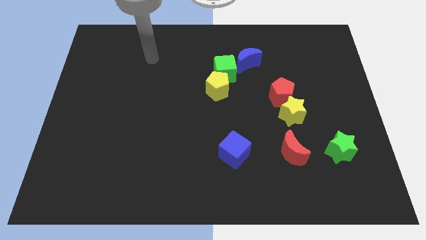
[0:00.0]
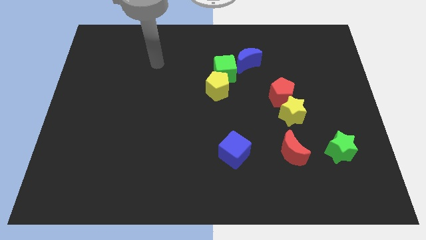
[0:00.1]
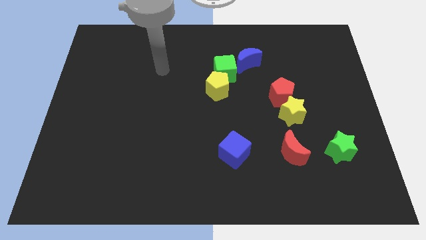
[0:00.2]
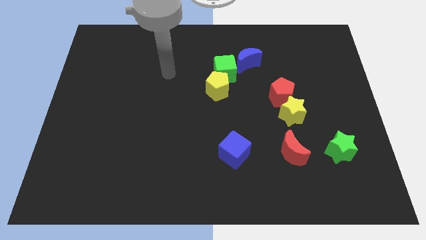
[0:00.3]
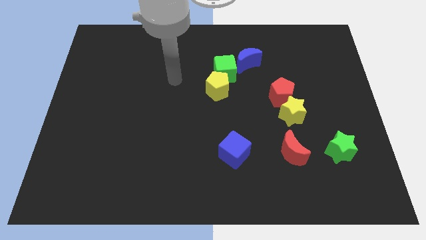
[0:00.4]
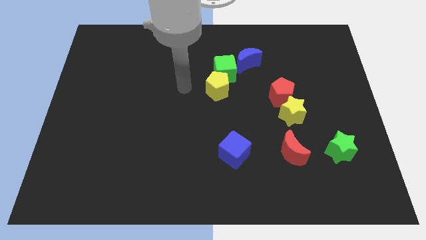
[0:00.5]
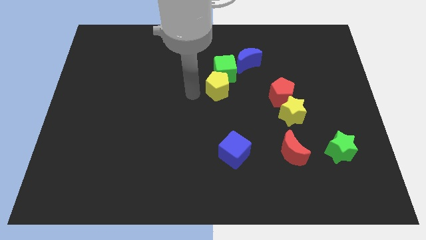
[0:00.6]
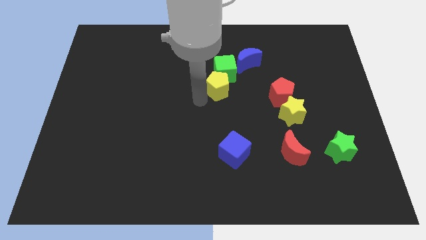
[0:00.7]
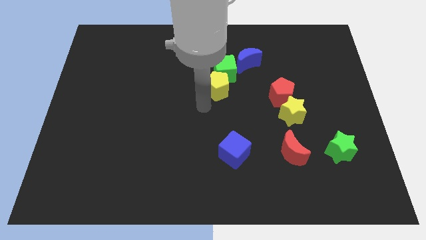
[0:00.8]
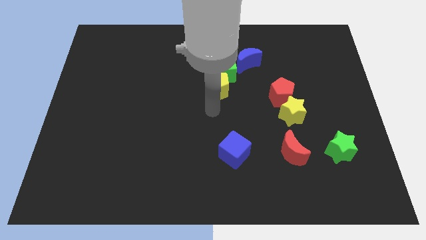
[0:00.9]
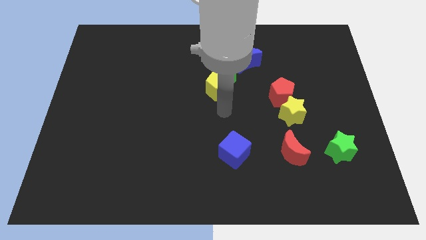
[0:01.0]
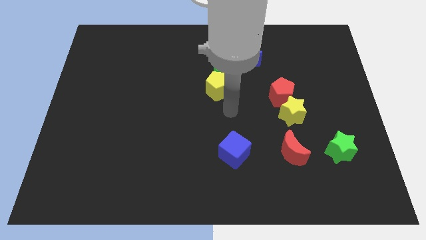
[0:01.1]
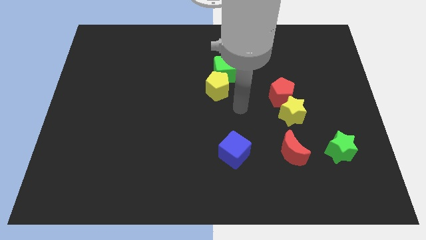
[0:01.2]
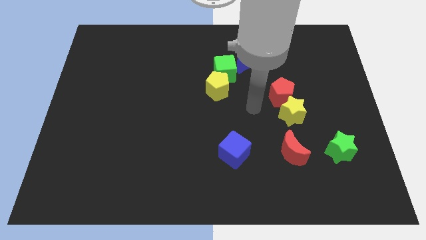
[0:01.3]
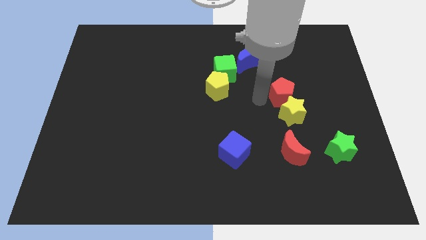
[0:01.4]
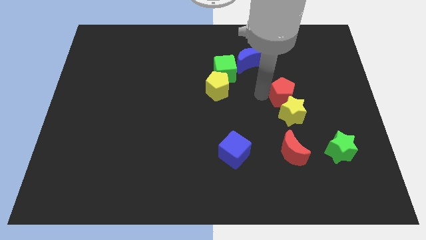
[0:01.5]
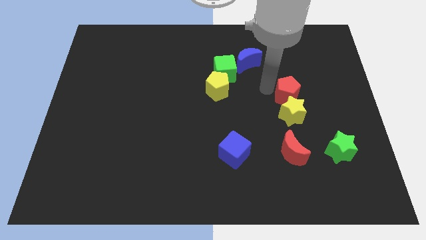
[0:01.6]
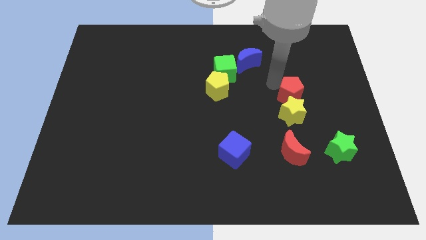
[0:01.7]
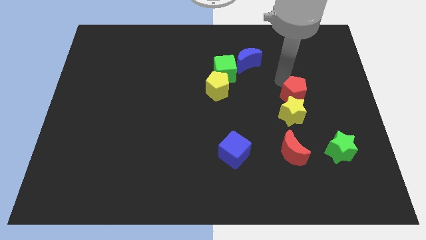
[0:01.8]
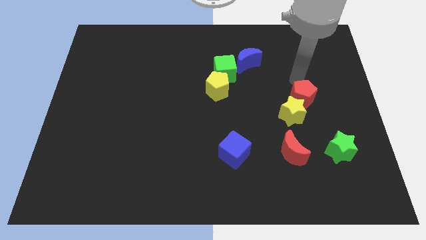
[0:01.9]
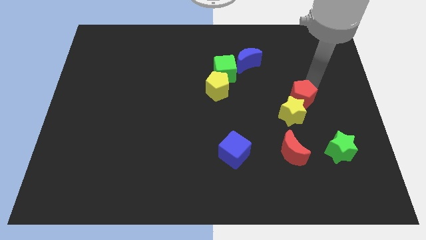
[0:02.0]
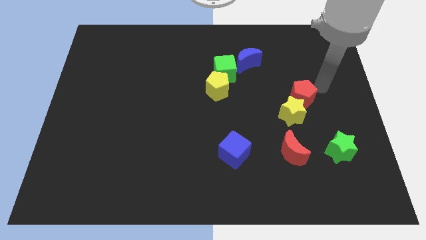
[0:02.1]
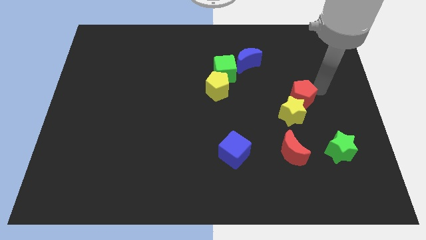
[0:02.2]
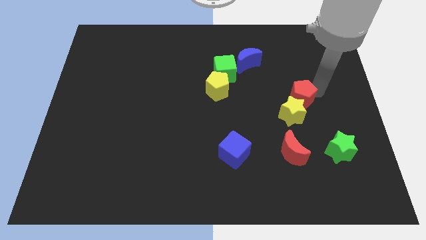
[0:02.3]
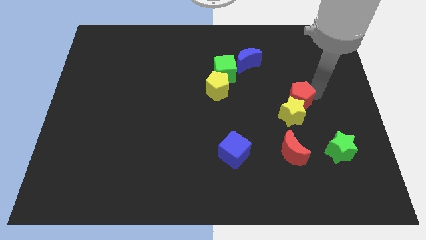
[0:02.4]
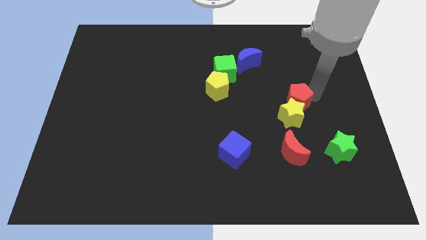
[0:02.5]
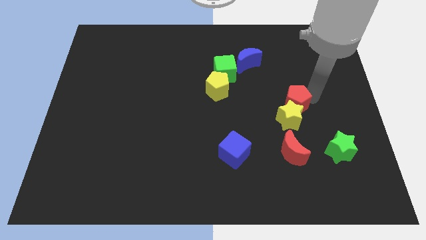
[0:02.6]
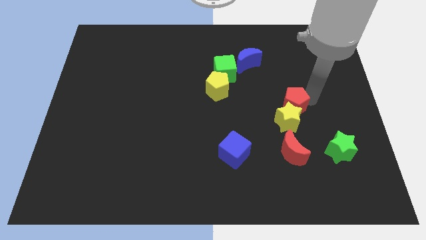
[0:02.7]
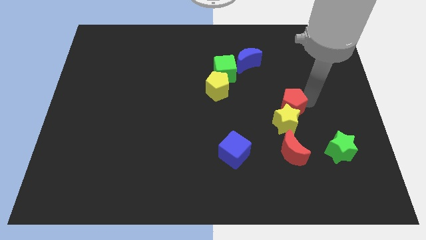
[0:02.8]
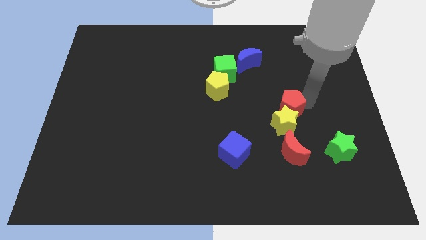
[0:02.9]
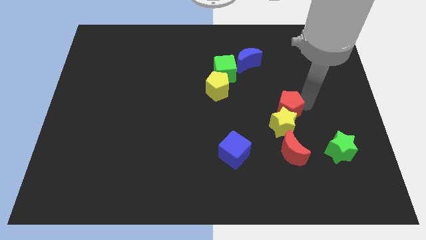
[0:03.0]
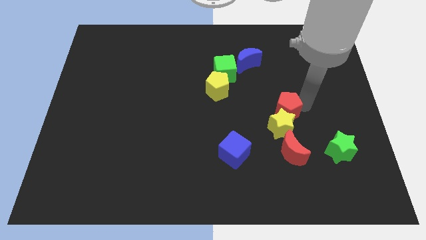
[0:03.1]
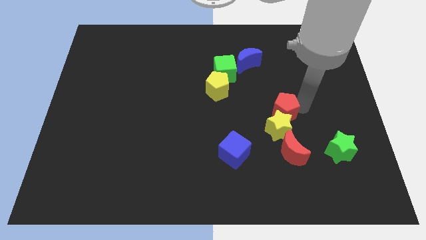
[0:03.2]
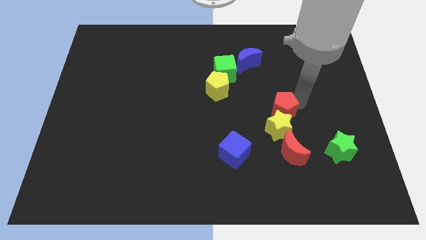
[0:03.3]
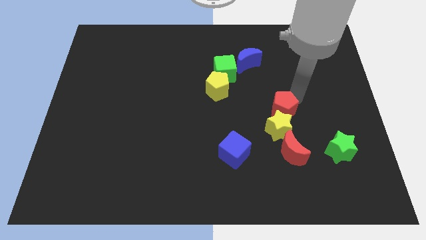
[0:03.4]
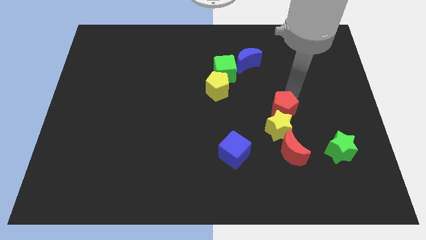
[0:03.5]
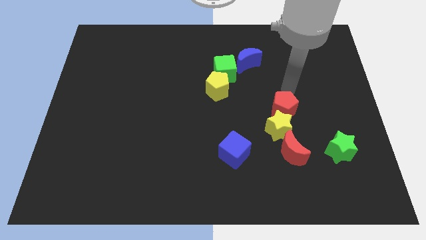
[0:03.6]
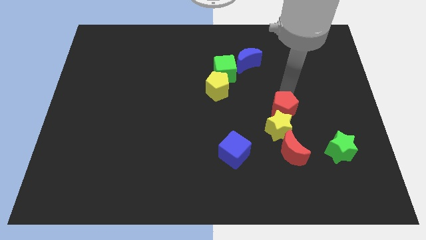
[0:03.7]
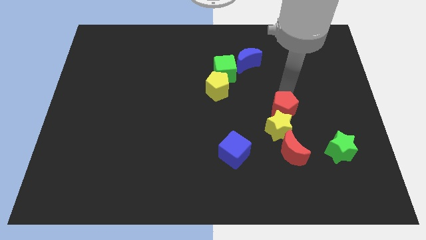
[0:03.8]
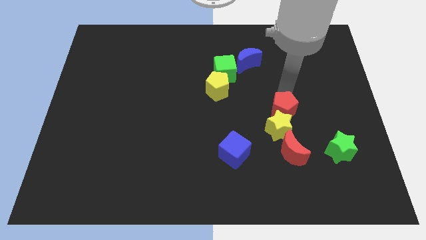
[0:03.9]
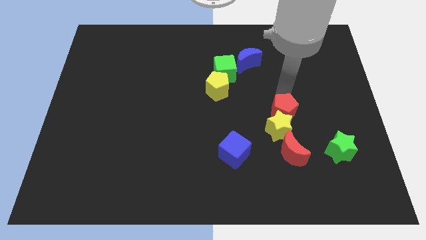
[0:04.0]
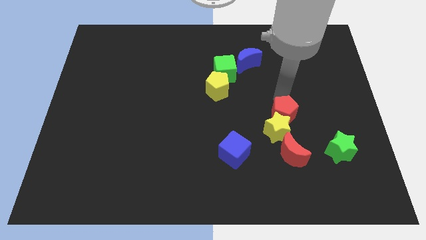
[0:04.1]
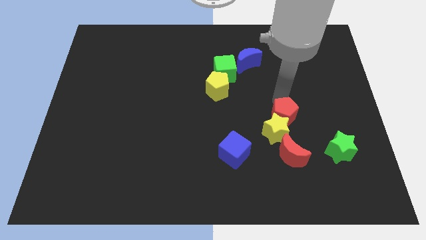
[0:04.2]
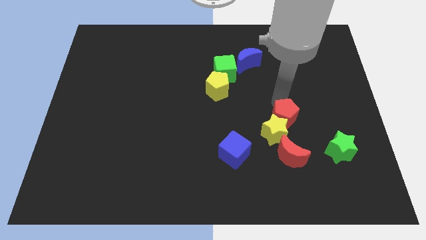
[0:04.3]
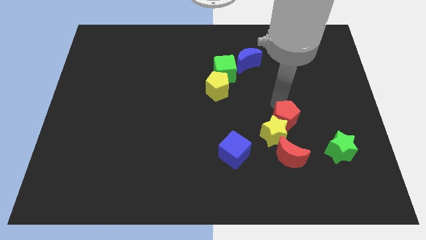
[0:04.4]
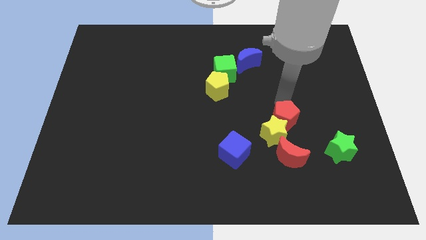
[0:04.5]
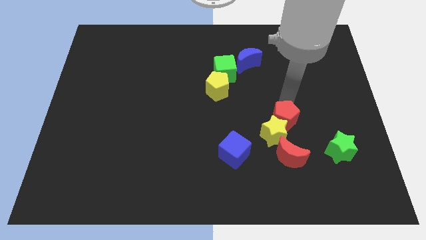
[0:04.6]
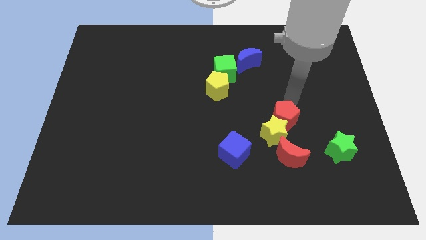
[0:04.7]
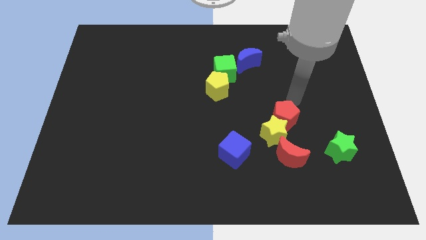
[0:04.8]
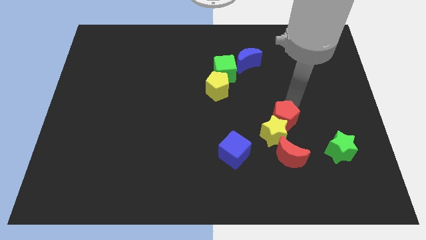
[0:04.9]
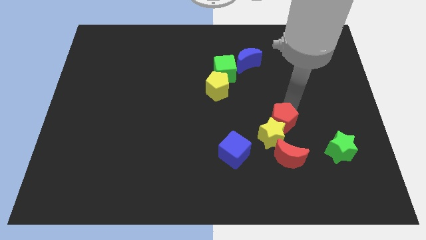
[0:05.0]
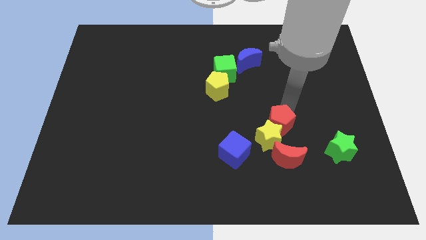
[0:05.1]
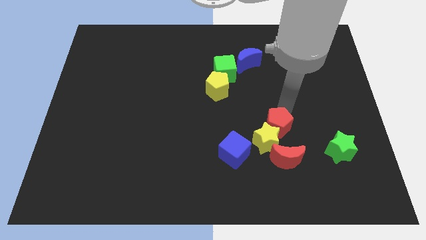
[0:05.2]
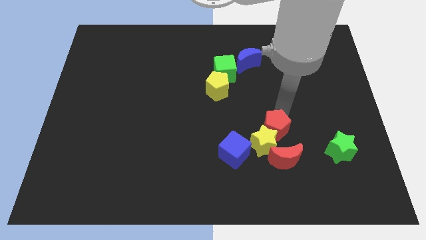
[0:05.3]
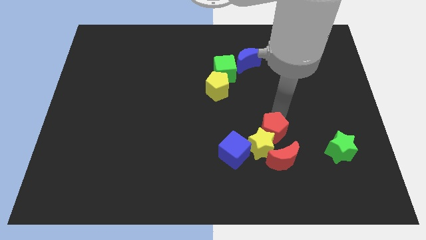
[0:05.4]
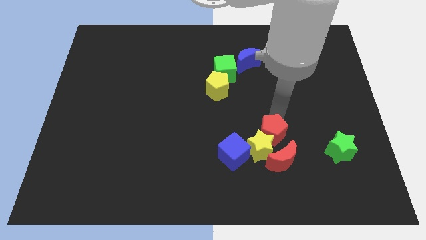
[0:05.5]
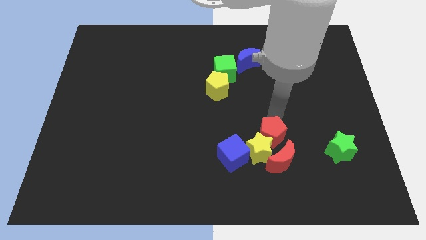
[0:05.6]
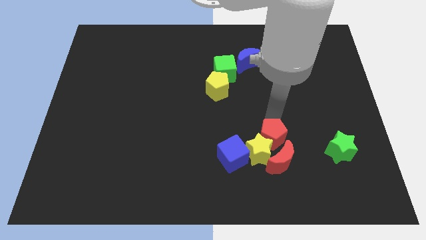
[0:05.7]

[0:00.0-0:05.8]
put the red pentagon to the red moon

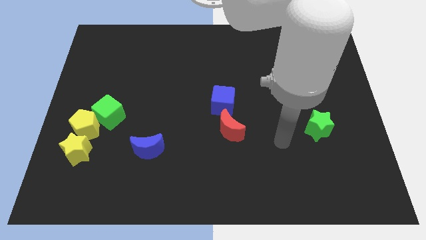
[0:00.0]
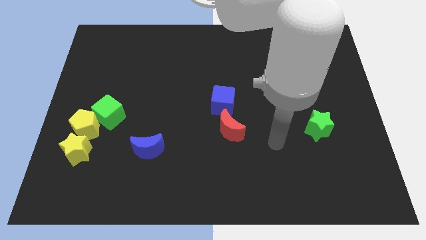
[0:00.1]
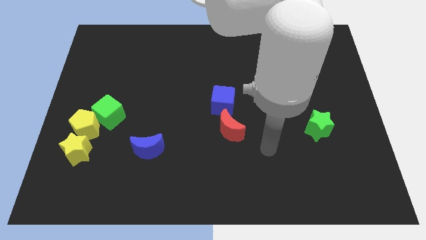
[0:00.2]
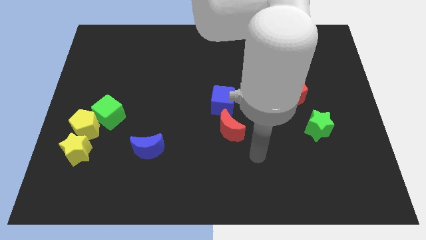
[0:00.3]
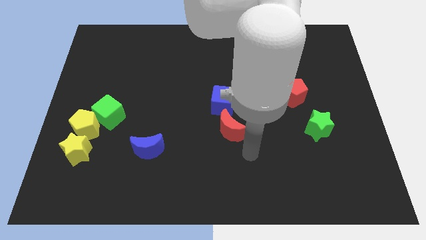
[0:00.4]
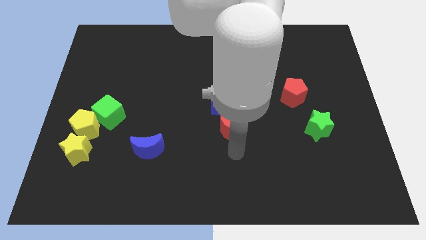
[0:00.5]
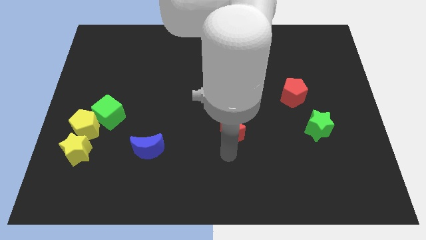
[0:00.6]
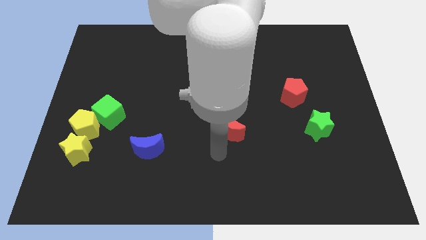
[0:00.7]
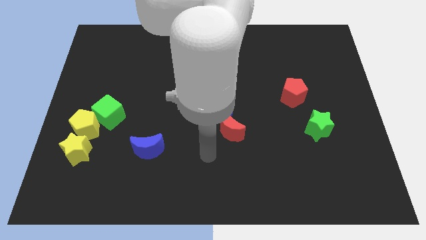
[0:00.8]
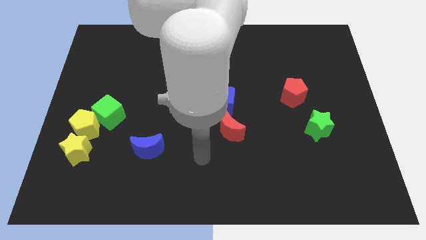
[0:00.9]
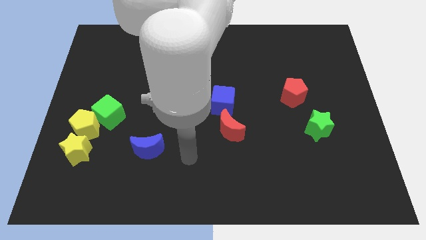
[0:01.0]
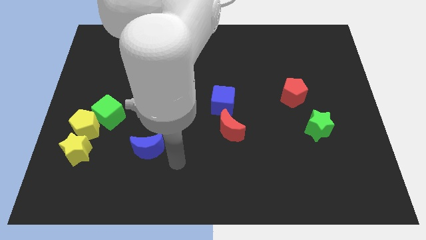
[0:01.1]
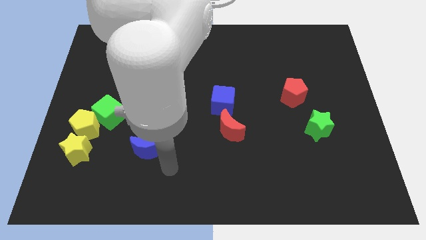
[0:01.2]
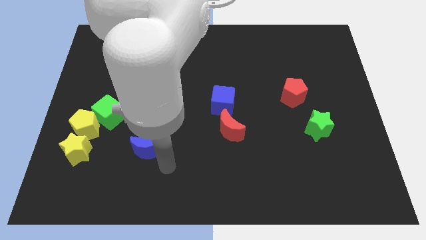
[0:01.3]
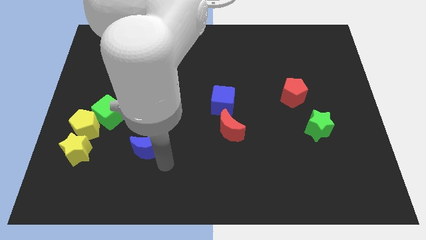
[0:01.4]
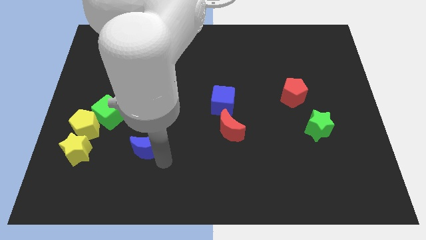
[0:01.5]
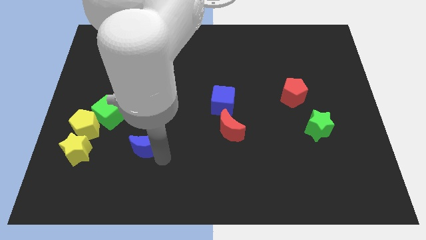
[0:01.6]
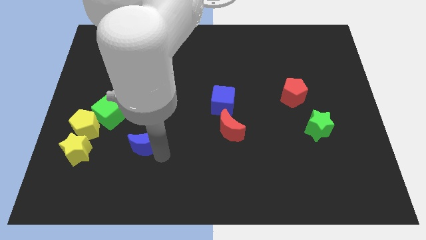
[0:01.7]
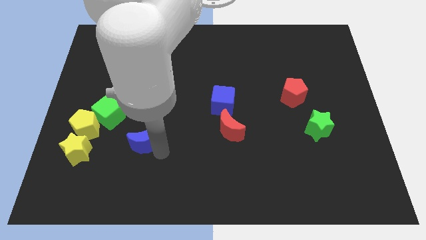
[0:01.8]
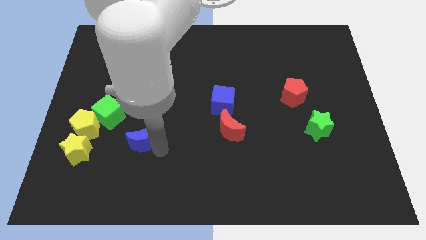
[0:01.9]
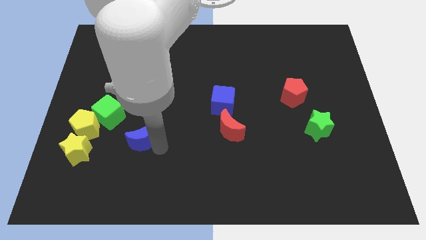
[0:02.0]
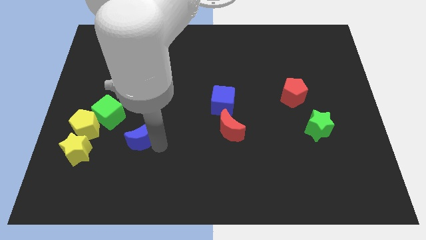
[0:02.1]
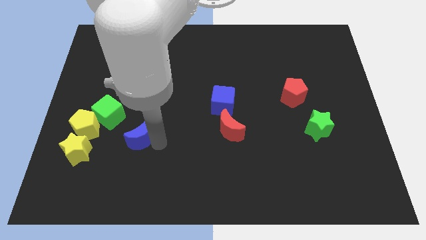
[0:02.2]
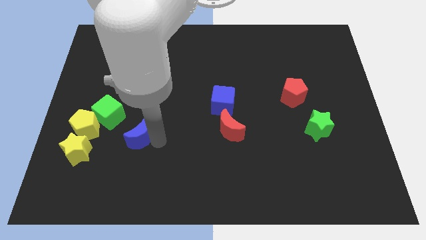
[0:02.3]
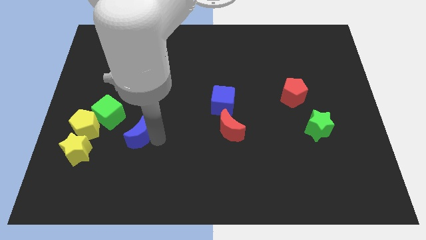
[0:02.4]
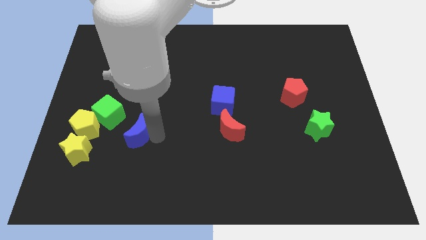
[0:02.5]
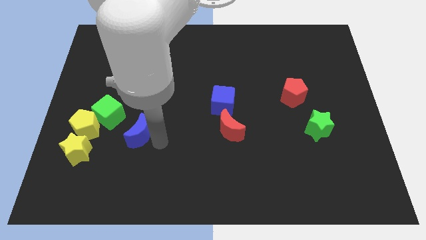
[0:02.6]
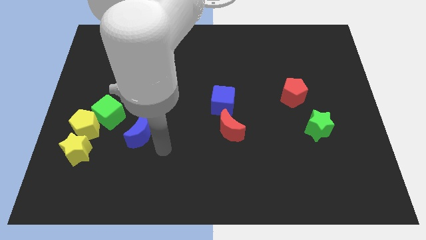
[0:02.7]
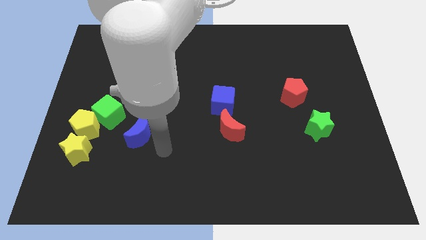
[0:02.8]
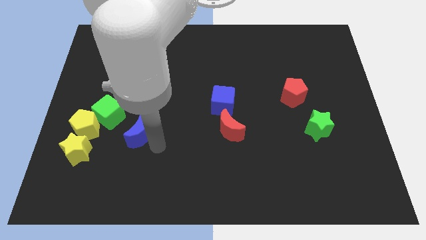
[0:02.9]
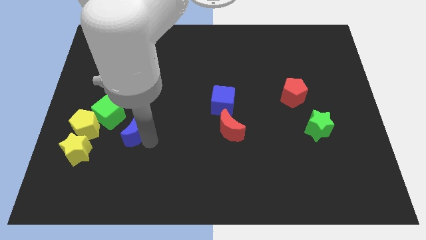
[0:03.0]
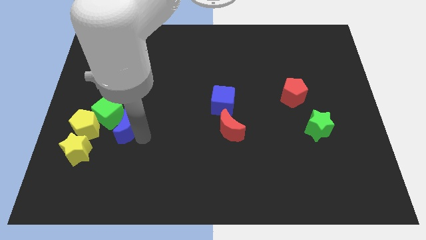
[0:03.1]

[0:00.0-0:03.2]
push the blue moon to the green cube
